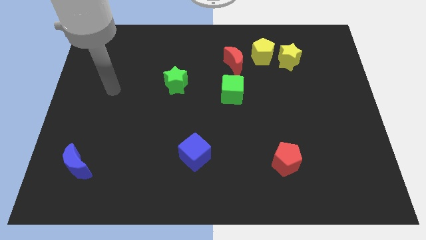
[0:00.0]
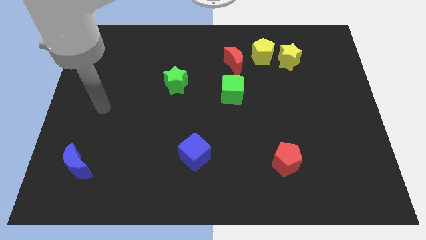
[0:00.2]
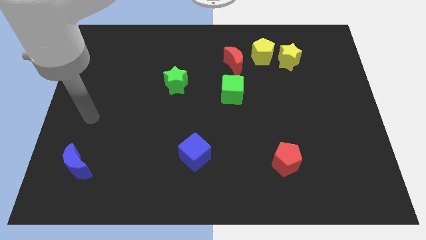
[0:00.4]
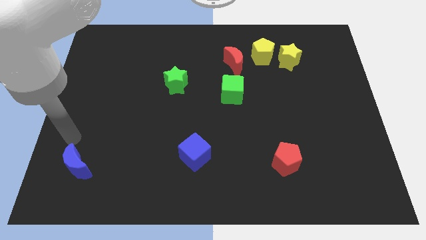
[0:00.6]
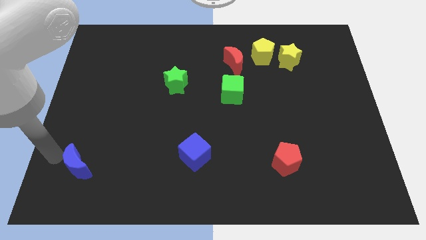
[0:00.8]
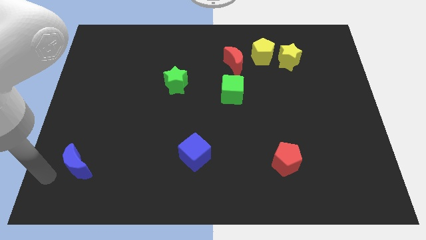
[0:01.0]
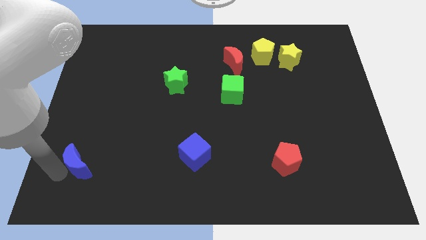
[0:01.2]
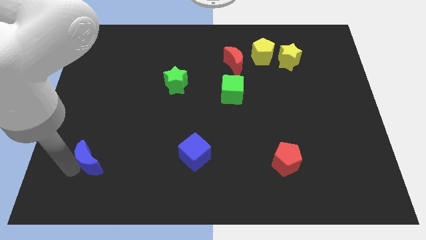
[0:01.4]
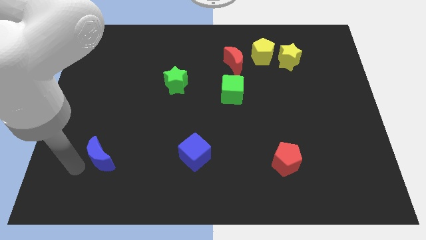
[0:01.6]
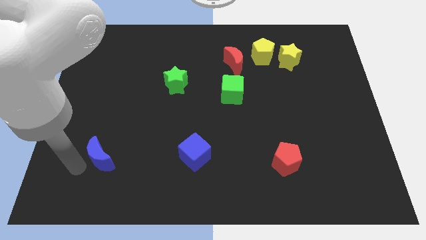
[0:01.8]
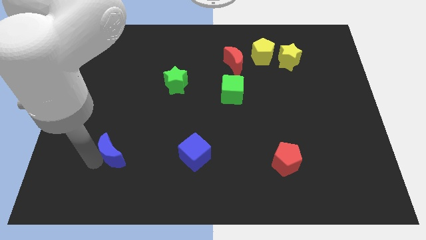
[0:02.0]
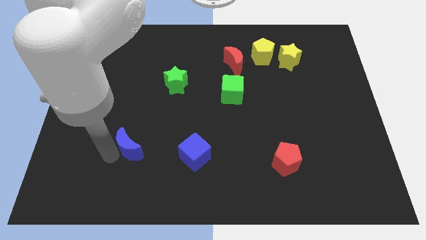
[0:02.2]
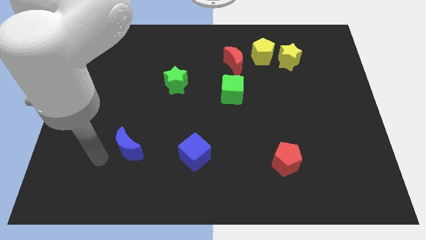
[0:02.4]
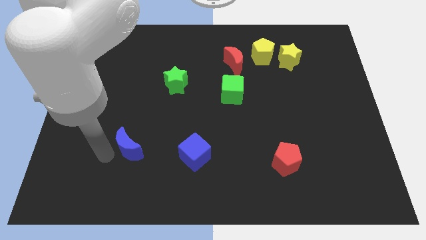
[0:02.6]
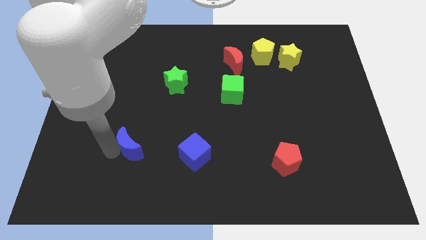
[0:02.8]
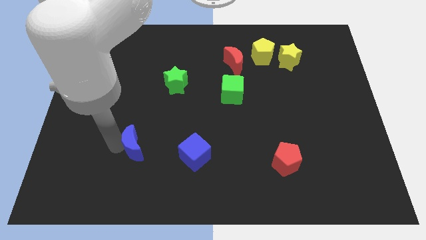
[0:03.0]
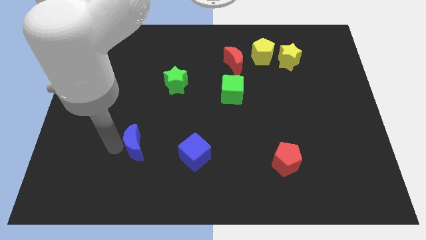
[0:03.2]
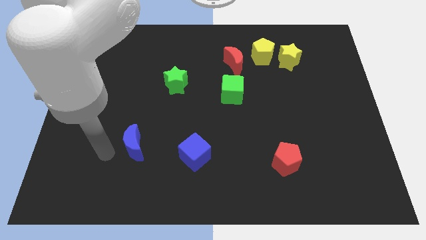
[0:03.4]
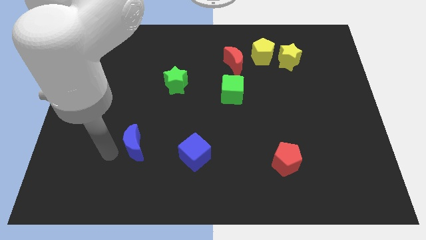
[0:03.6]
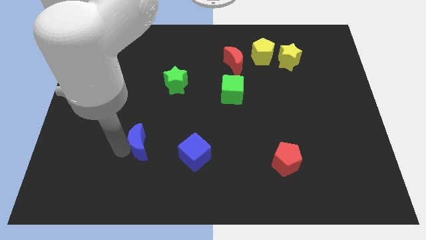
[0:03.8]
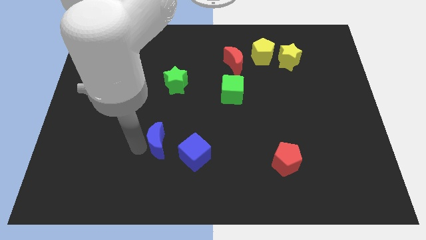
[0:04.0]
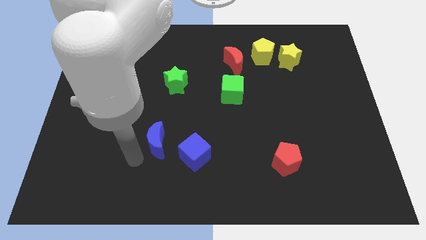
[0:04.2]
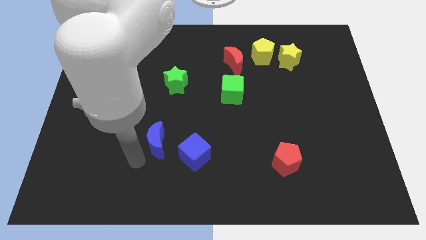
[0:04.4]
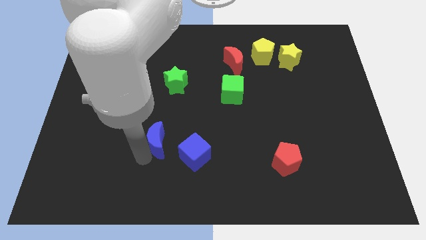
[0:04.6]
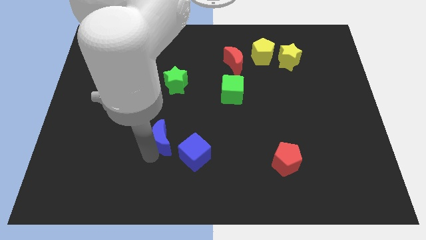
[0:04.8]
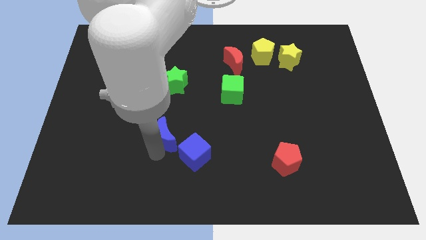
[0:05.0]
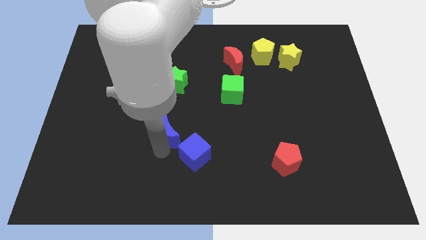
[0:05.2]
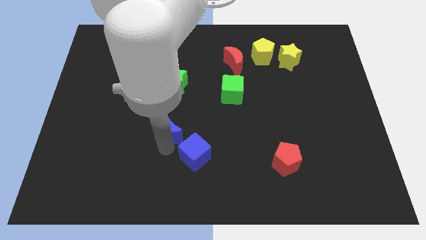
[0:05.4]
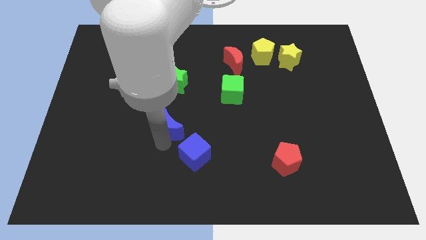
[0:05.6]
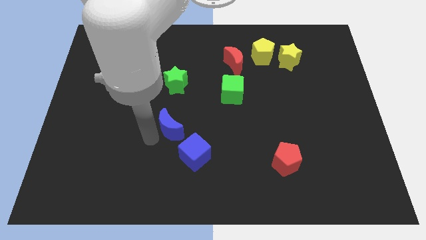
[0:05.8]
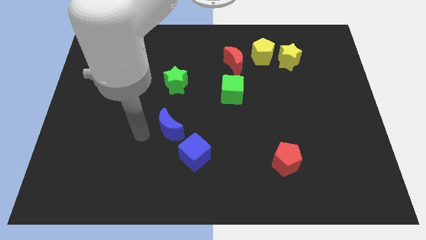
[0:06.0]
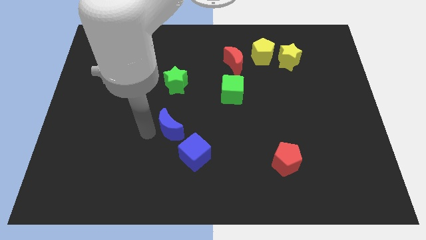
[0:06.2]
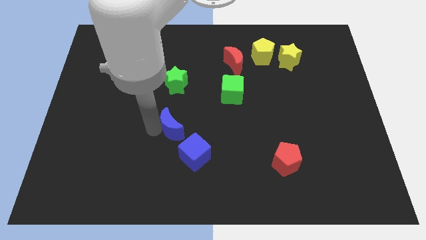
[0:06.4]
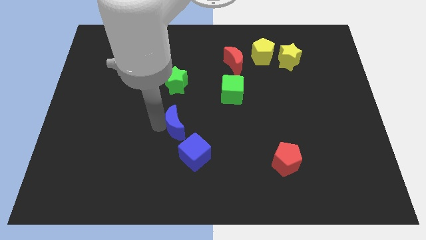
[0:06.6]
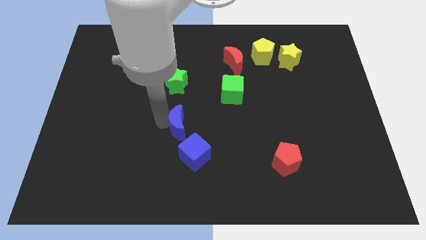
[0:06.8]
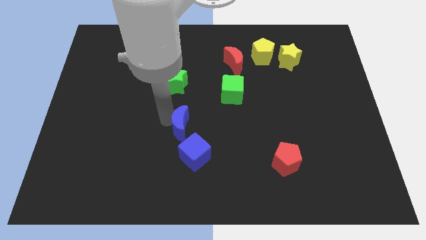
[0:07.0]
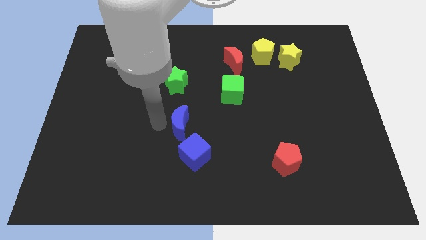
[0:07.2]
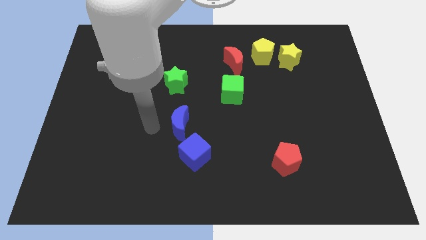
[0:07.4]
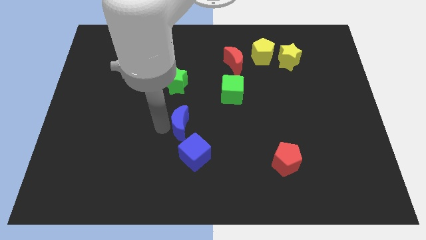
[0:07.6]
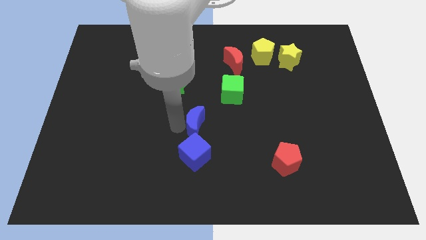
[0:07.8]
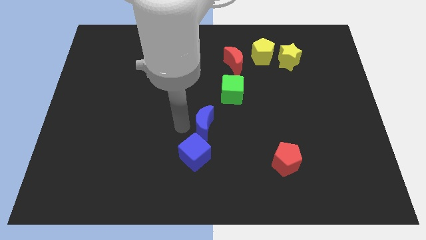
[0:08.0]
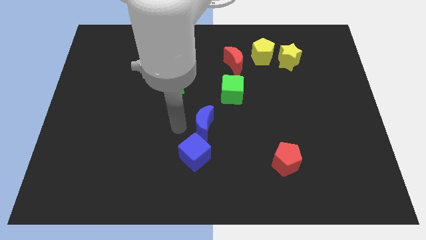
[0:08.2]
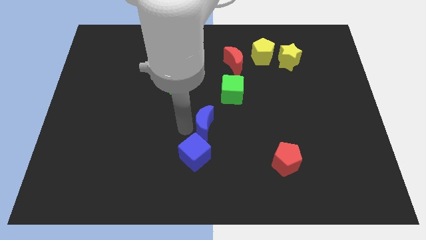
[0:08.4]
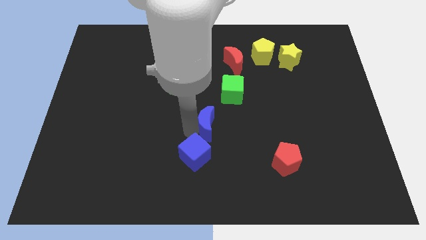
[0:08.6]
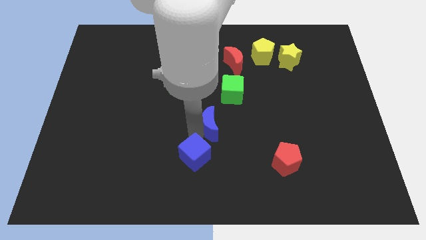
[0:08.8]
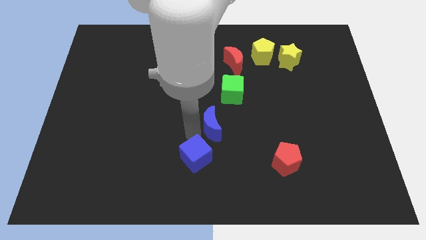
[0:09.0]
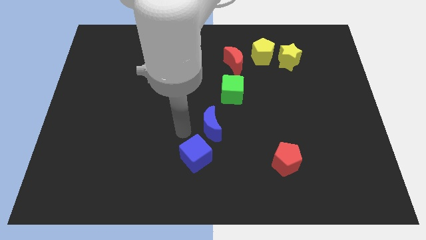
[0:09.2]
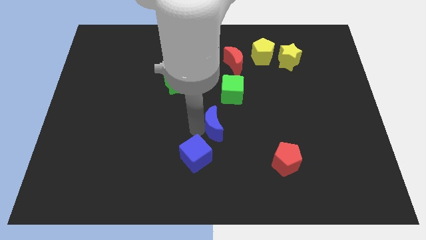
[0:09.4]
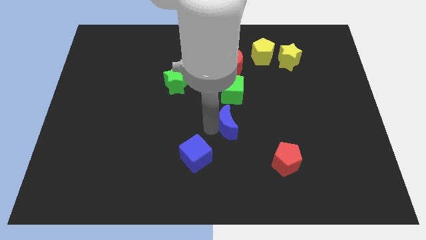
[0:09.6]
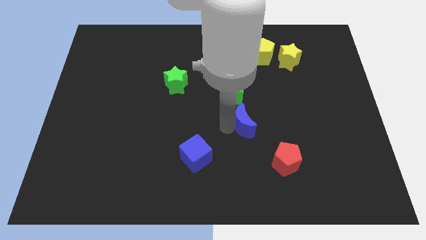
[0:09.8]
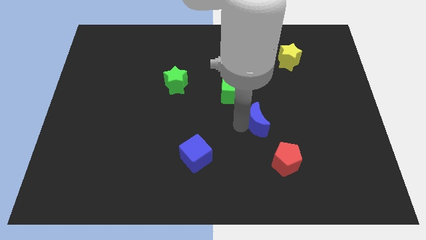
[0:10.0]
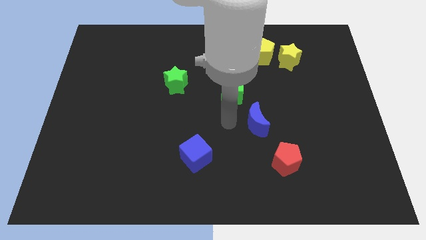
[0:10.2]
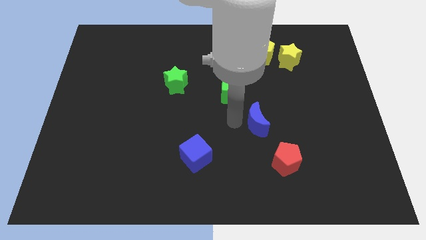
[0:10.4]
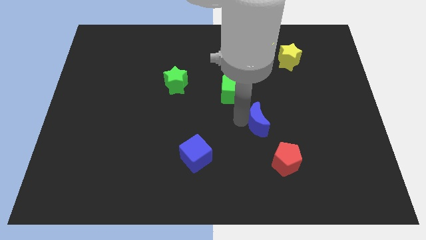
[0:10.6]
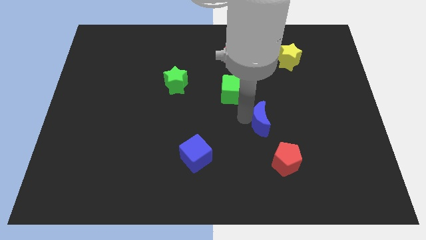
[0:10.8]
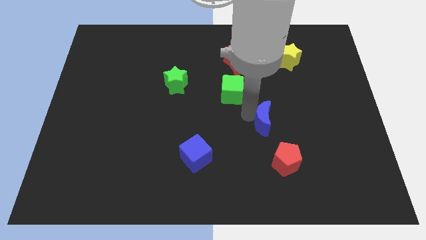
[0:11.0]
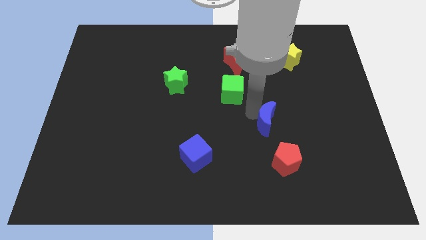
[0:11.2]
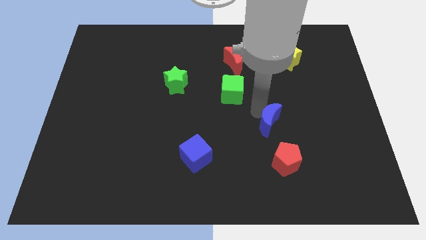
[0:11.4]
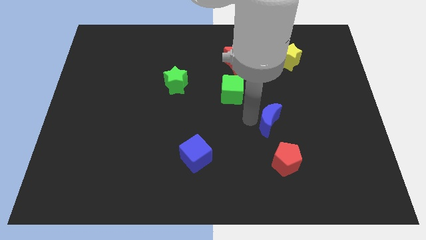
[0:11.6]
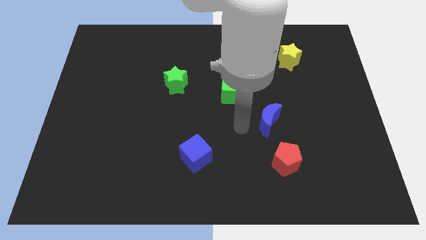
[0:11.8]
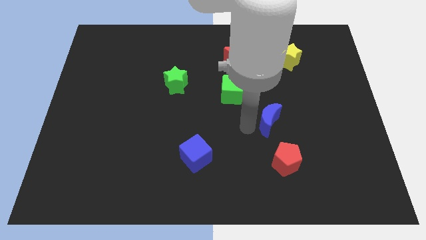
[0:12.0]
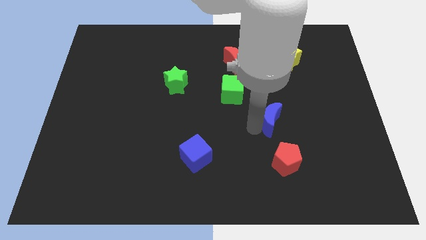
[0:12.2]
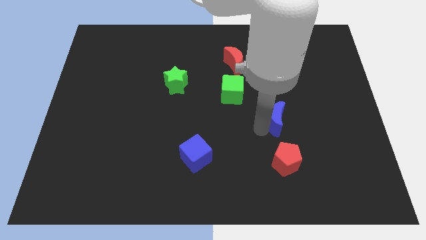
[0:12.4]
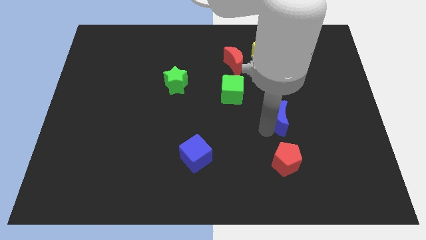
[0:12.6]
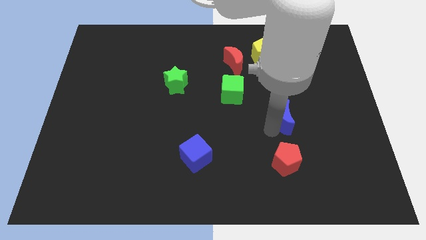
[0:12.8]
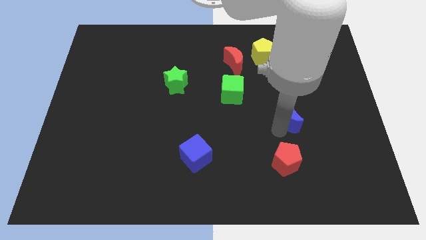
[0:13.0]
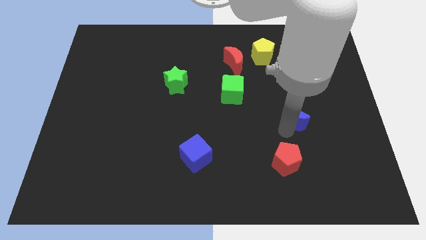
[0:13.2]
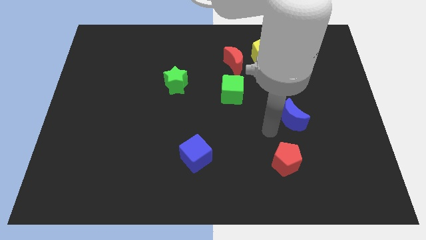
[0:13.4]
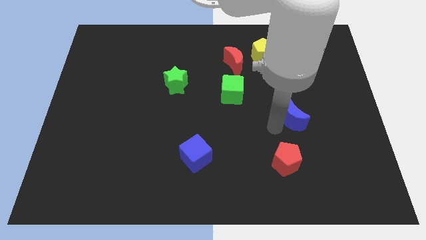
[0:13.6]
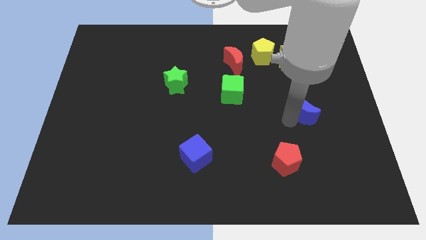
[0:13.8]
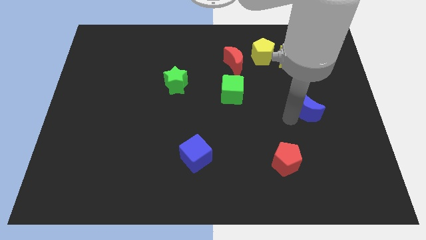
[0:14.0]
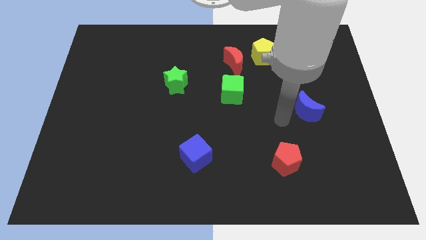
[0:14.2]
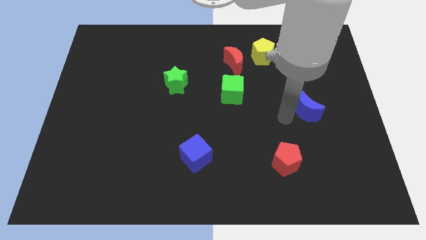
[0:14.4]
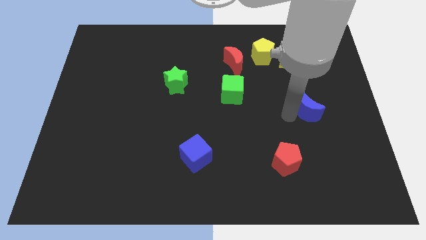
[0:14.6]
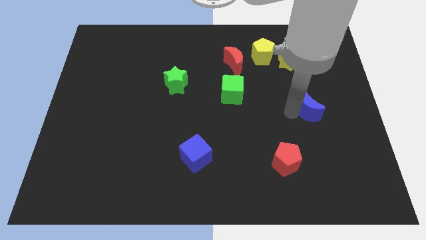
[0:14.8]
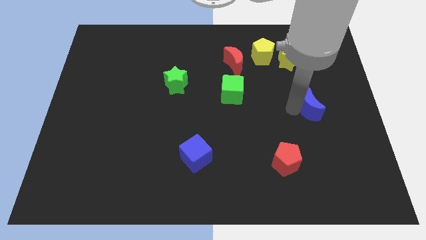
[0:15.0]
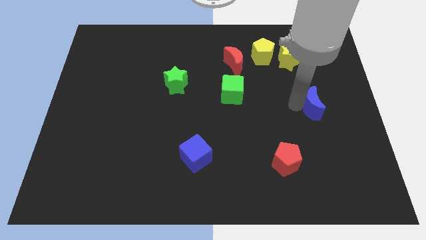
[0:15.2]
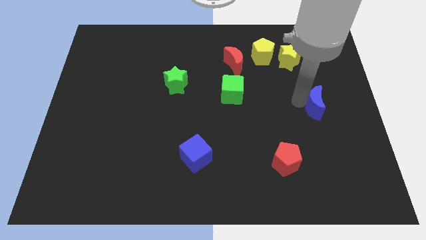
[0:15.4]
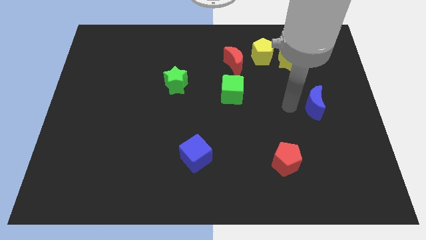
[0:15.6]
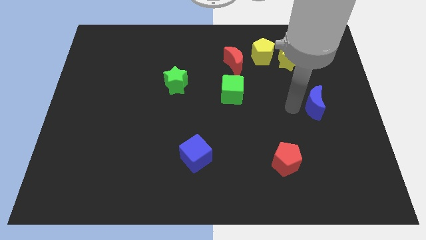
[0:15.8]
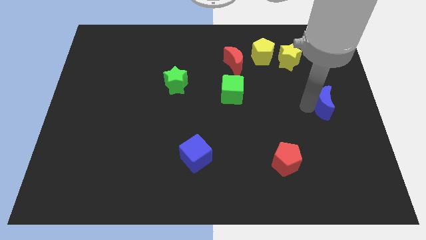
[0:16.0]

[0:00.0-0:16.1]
push the blue moon to the right side of the board
